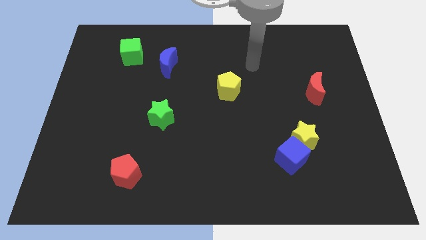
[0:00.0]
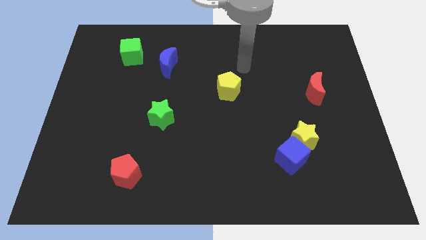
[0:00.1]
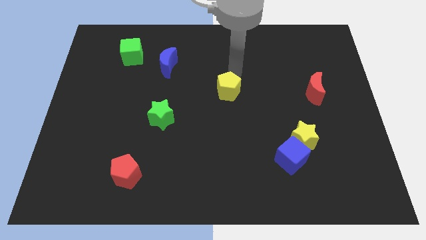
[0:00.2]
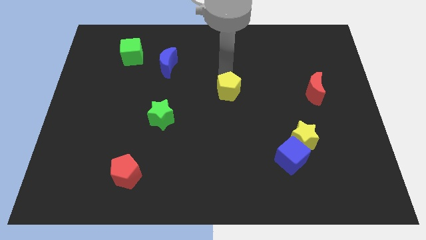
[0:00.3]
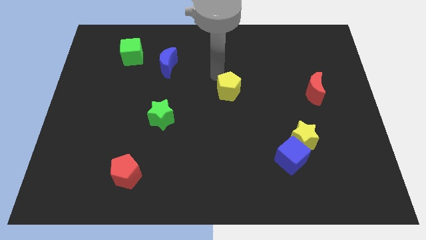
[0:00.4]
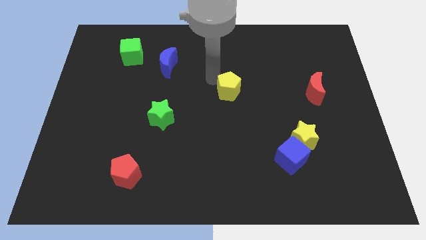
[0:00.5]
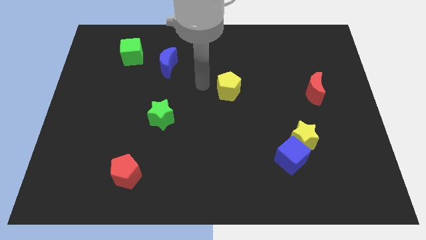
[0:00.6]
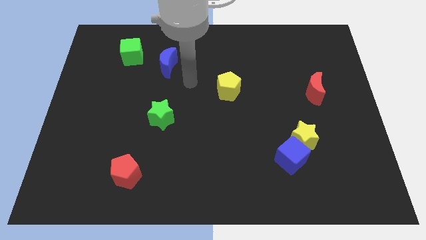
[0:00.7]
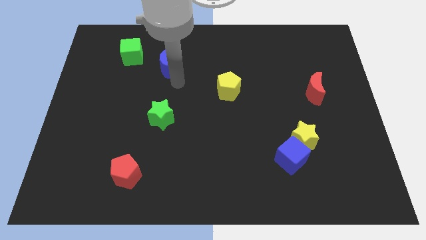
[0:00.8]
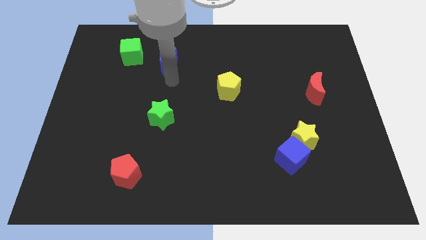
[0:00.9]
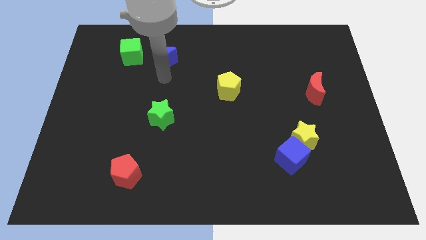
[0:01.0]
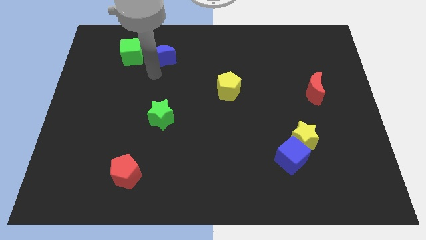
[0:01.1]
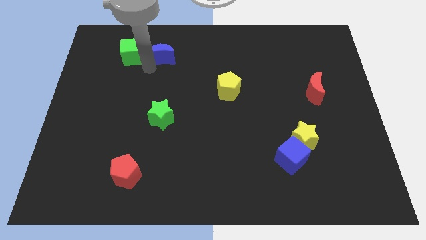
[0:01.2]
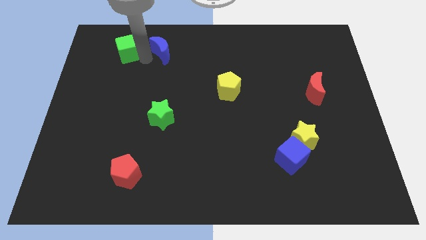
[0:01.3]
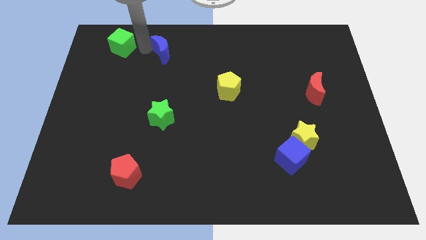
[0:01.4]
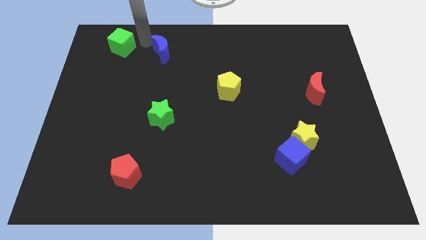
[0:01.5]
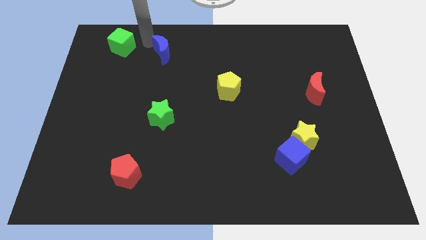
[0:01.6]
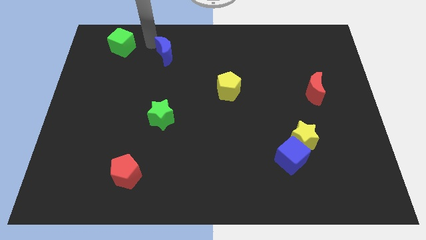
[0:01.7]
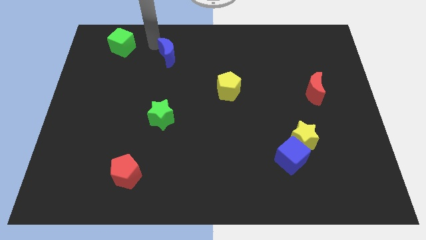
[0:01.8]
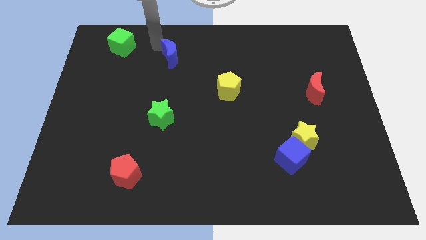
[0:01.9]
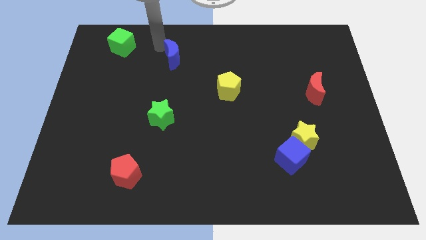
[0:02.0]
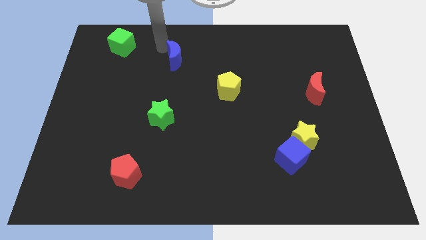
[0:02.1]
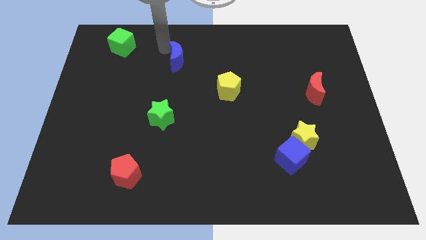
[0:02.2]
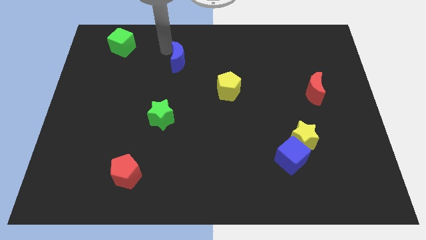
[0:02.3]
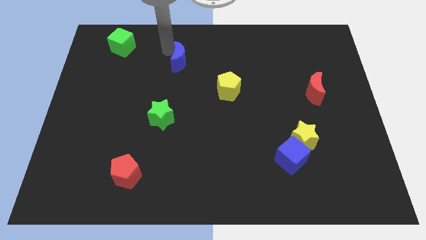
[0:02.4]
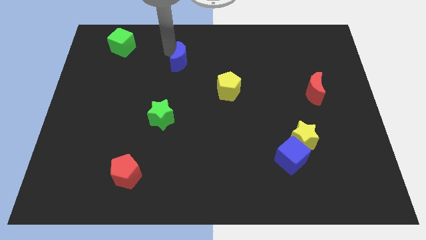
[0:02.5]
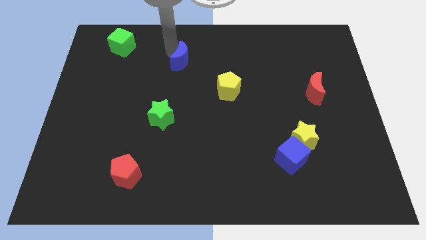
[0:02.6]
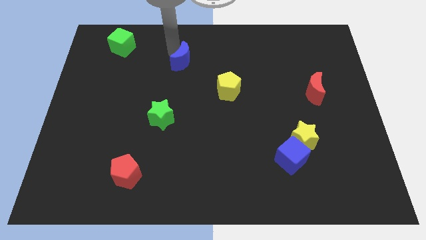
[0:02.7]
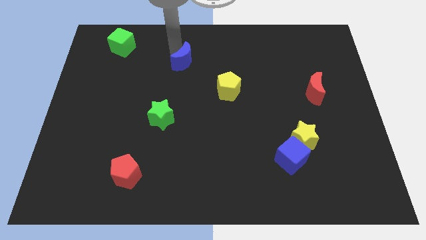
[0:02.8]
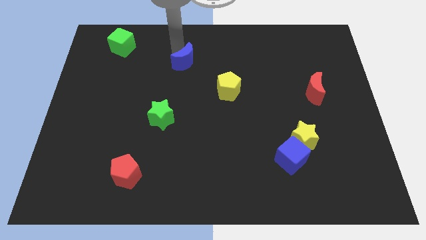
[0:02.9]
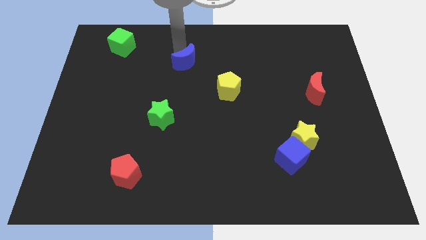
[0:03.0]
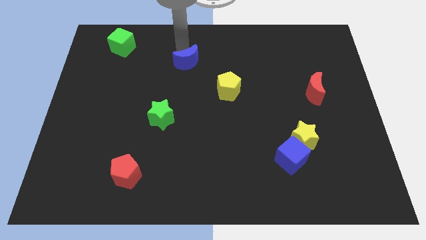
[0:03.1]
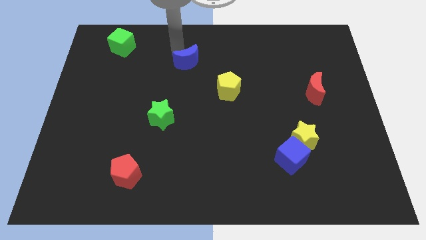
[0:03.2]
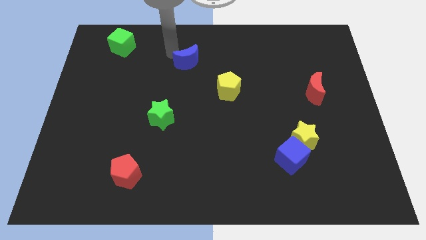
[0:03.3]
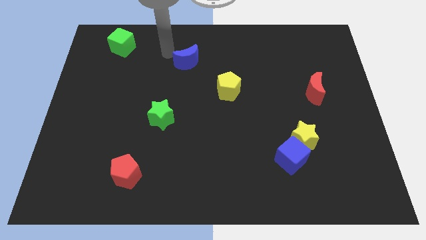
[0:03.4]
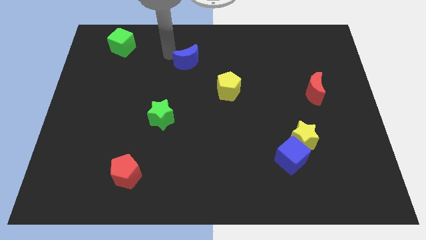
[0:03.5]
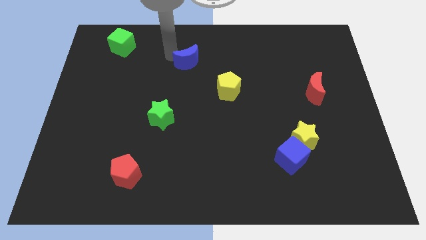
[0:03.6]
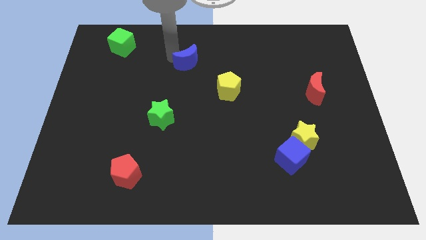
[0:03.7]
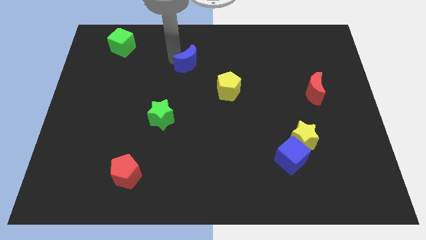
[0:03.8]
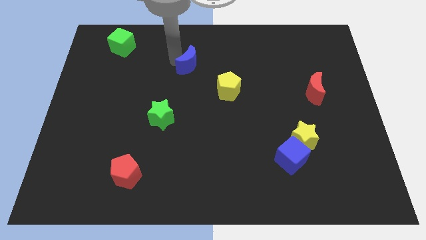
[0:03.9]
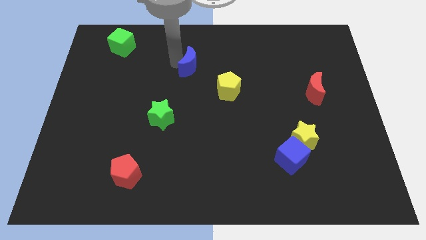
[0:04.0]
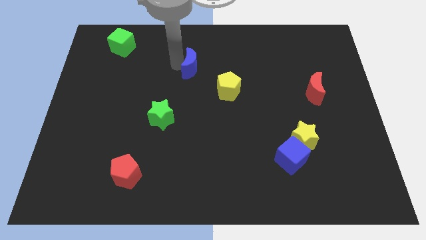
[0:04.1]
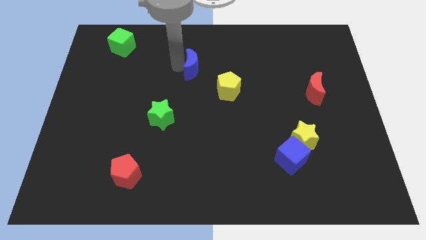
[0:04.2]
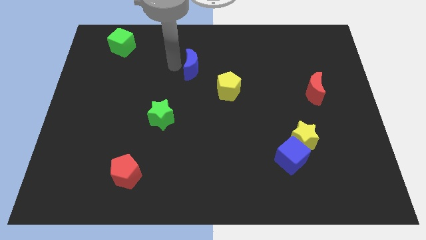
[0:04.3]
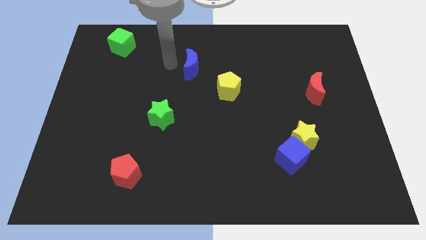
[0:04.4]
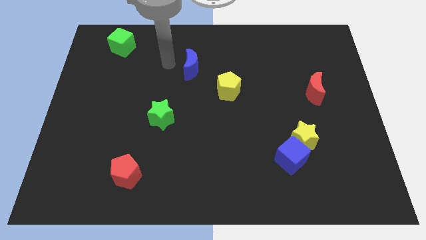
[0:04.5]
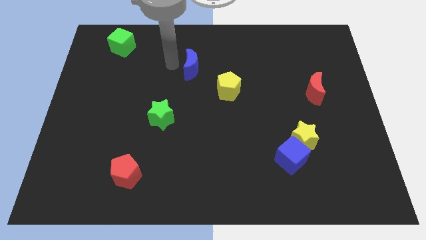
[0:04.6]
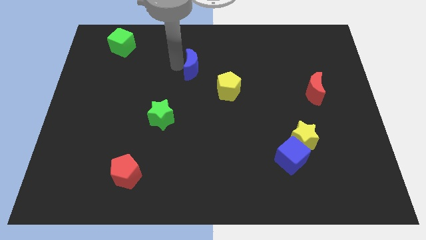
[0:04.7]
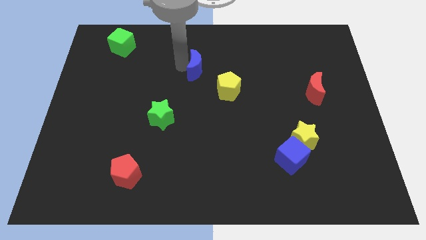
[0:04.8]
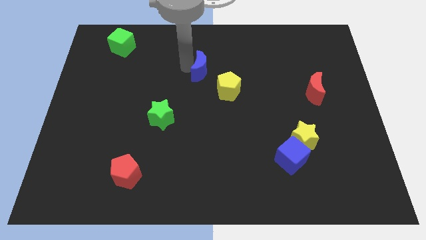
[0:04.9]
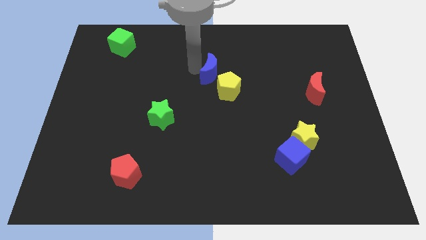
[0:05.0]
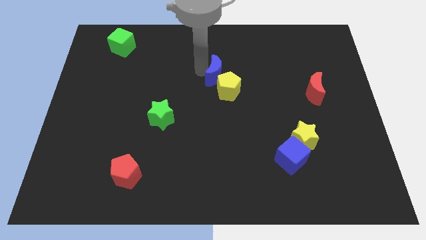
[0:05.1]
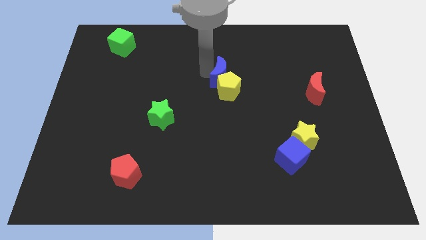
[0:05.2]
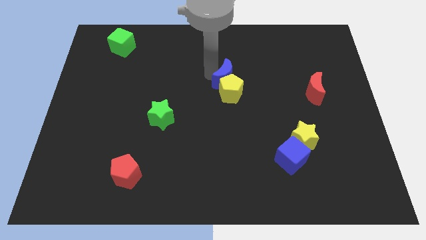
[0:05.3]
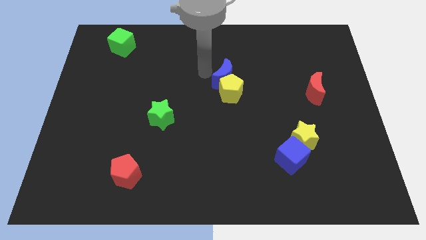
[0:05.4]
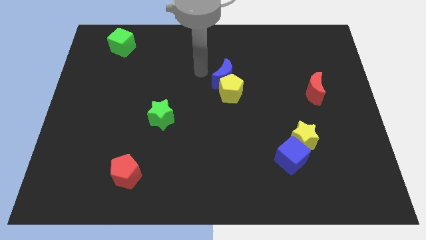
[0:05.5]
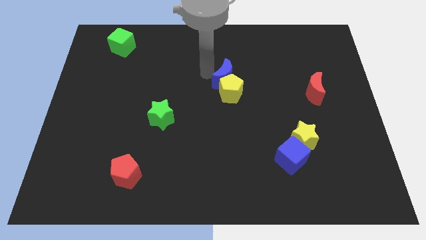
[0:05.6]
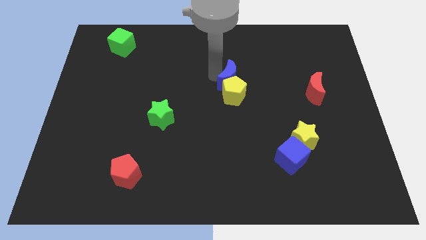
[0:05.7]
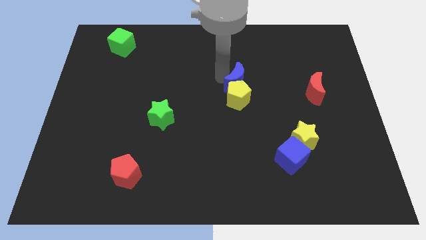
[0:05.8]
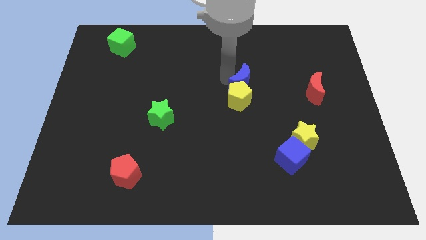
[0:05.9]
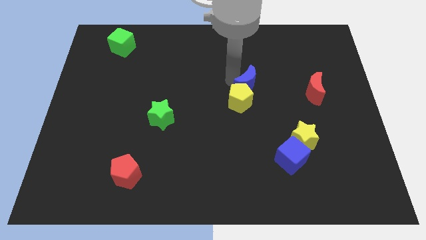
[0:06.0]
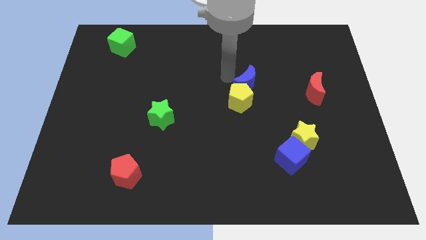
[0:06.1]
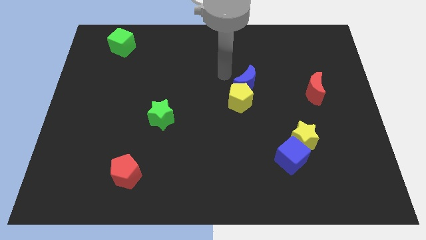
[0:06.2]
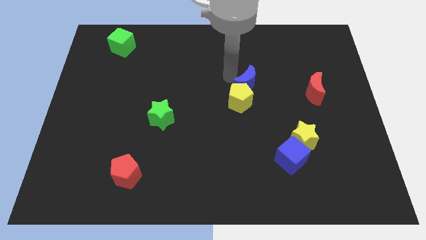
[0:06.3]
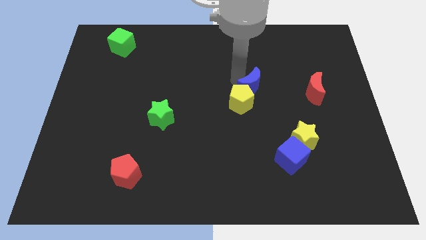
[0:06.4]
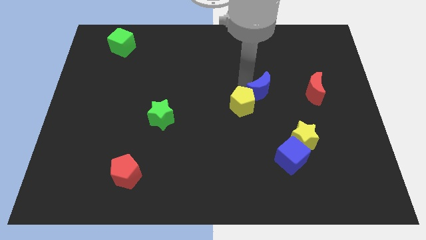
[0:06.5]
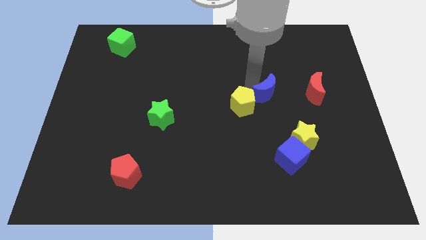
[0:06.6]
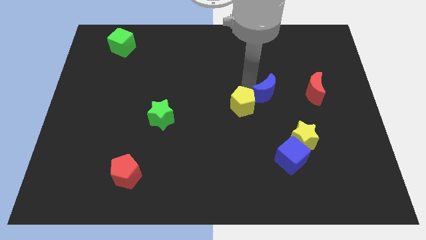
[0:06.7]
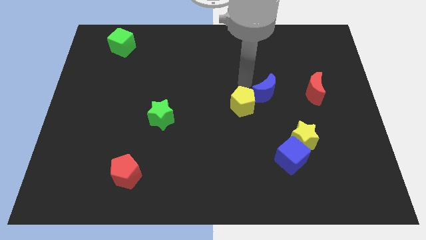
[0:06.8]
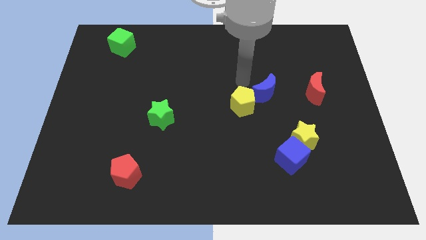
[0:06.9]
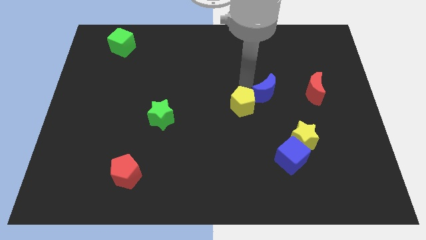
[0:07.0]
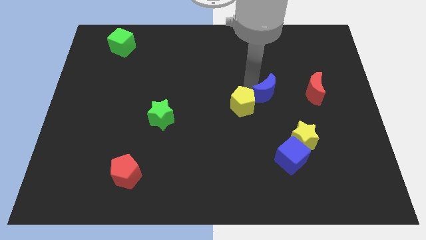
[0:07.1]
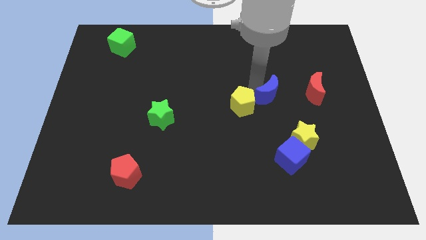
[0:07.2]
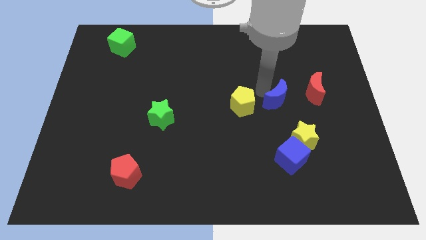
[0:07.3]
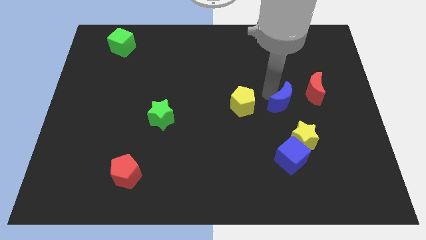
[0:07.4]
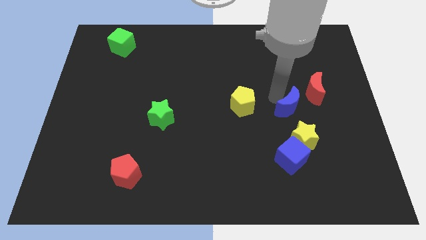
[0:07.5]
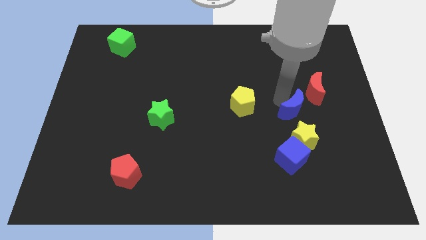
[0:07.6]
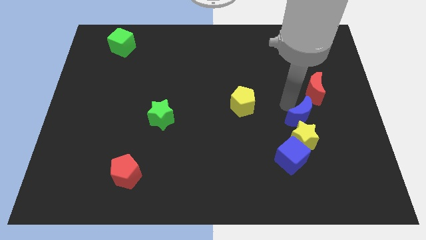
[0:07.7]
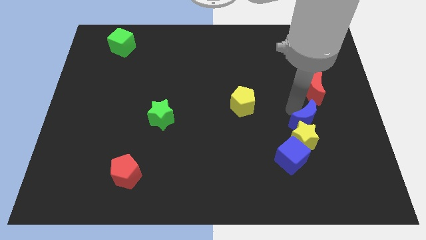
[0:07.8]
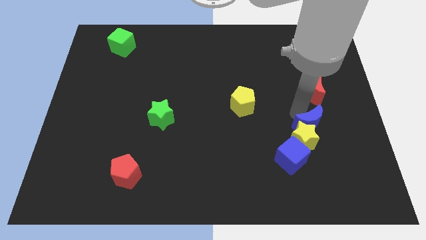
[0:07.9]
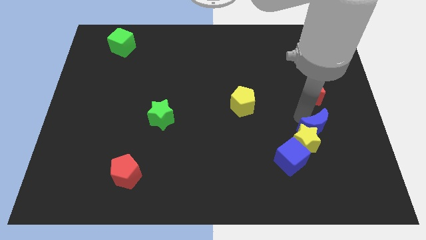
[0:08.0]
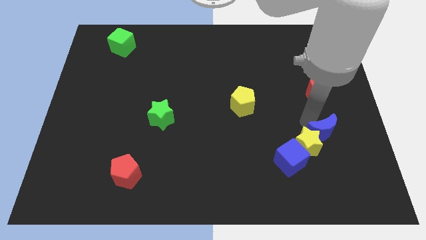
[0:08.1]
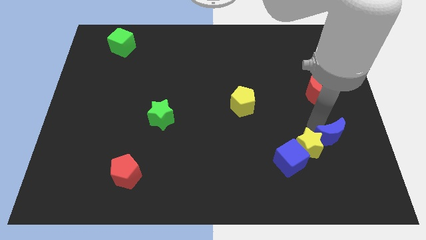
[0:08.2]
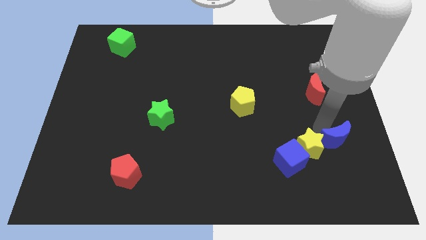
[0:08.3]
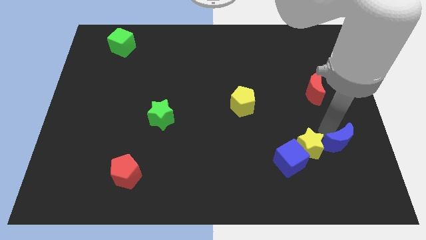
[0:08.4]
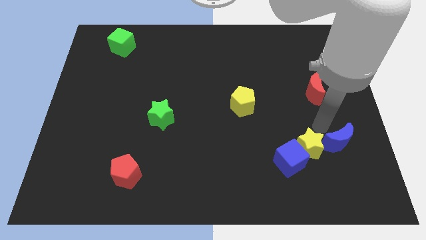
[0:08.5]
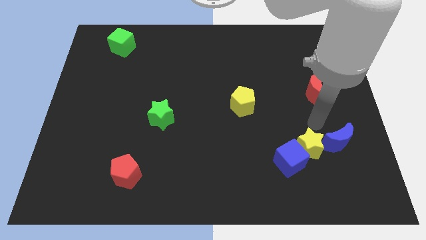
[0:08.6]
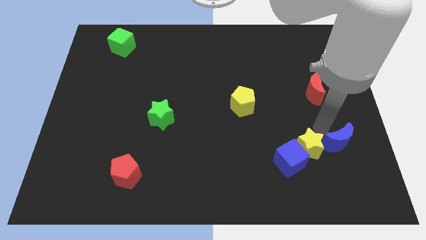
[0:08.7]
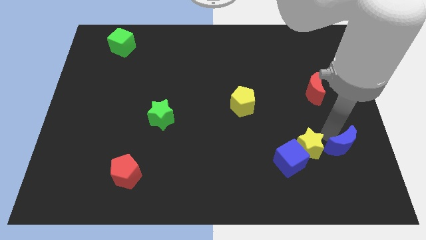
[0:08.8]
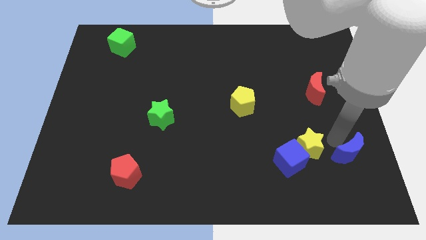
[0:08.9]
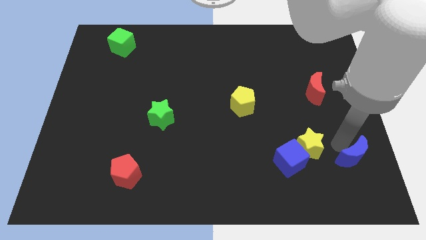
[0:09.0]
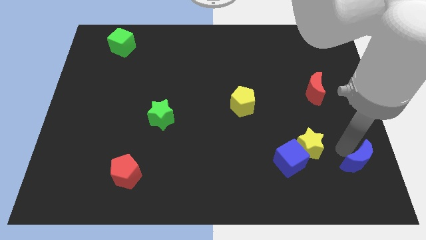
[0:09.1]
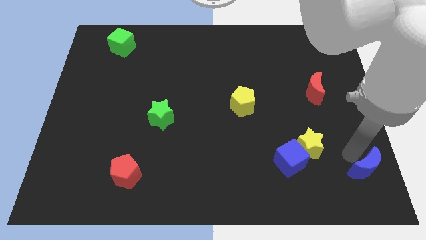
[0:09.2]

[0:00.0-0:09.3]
move the blue moon to the bottom right corner
